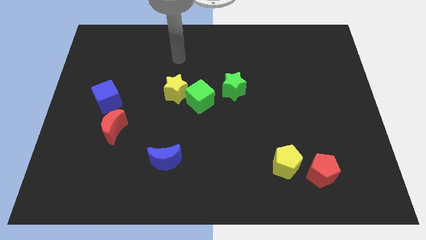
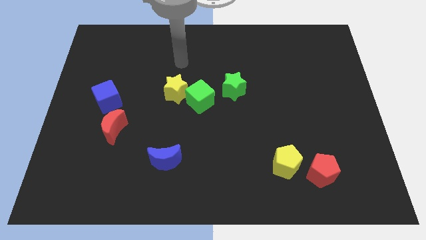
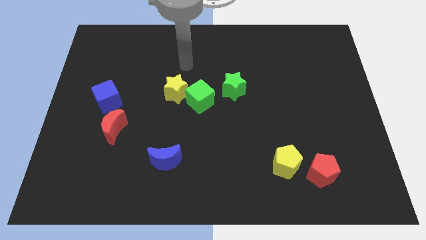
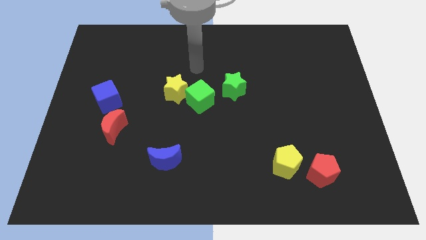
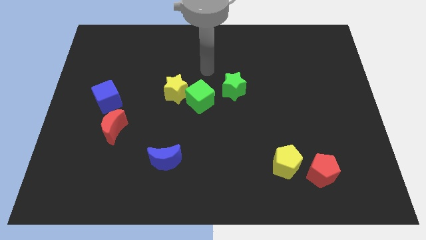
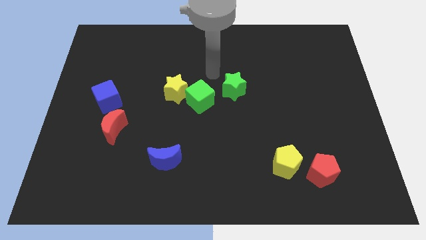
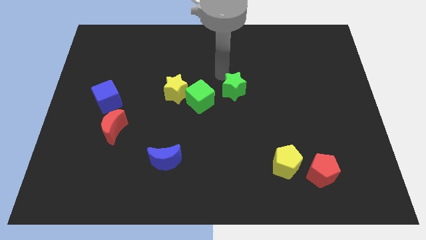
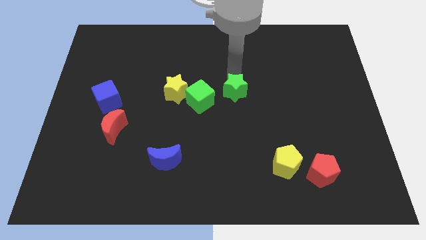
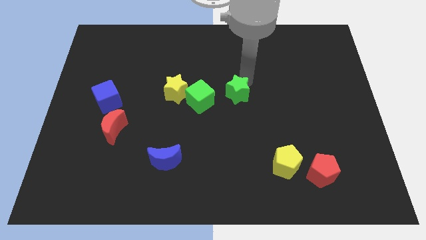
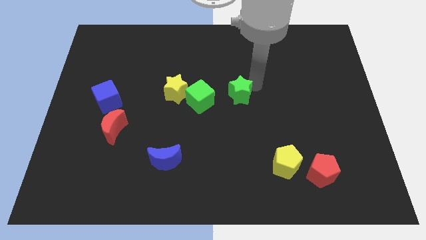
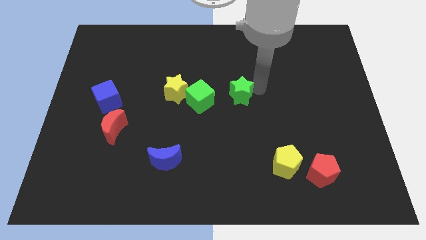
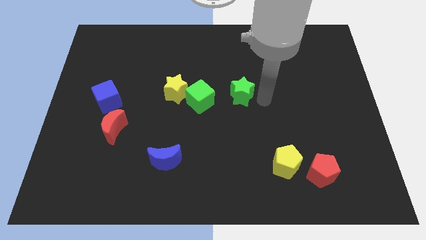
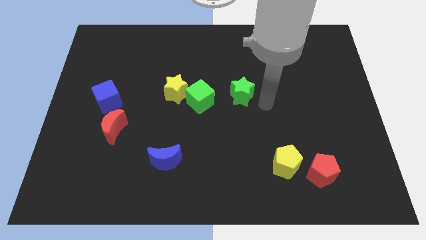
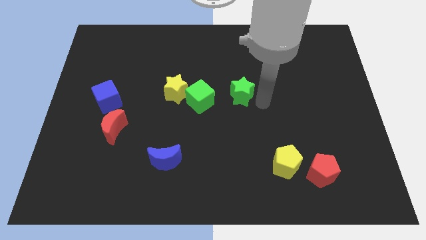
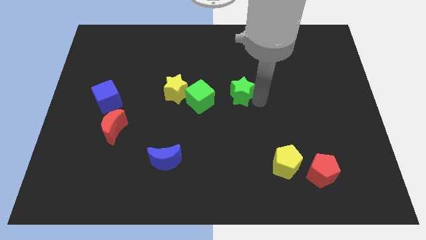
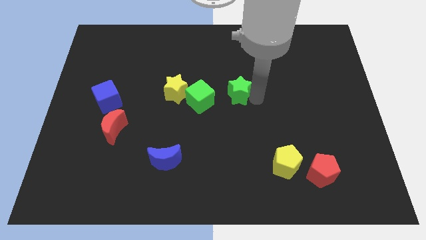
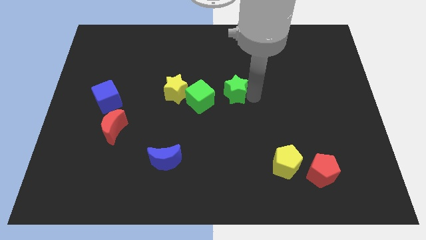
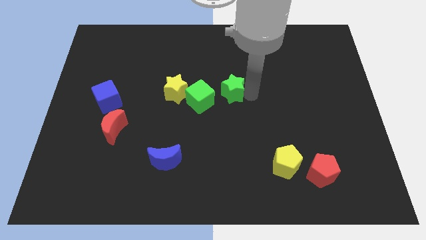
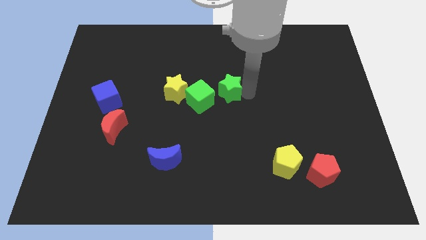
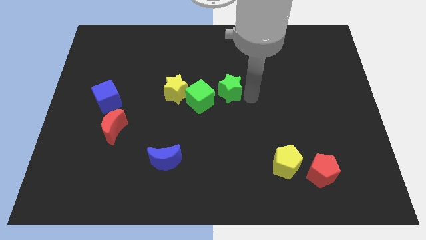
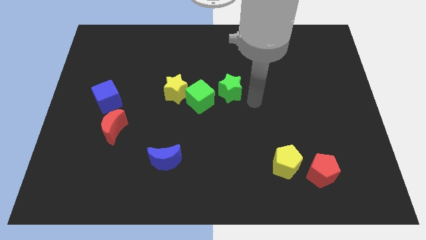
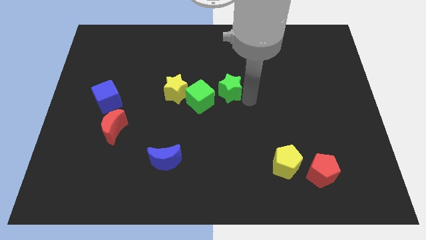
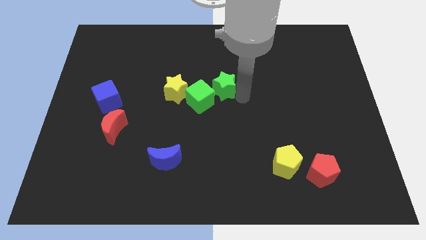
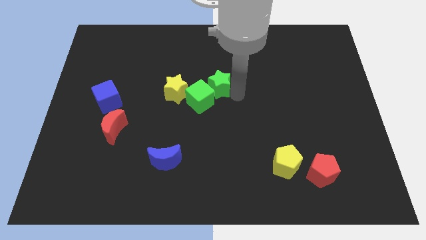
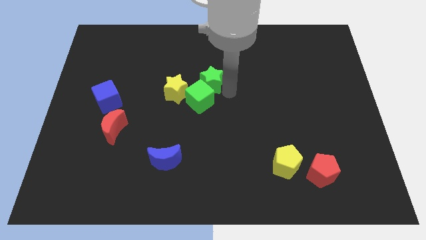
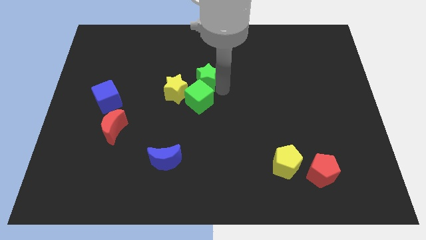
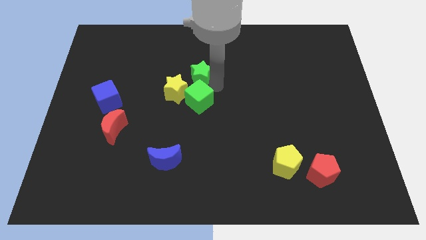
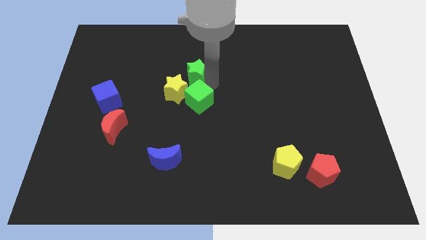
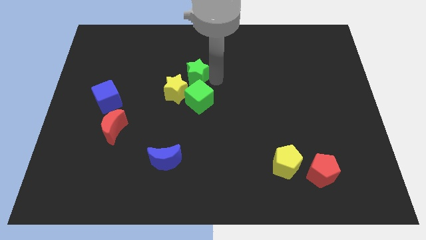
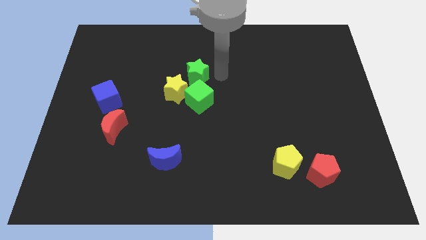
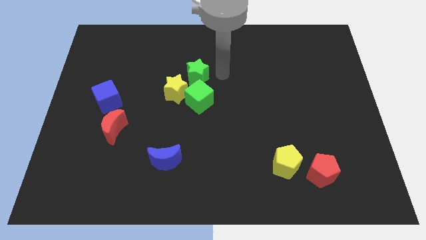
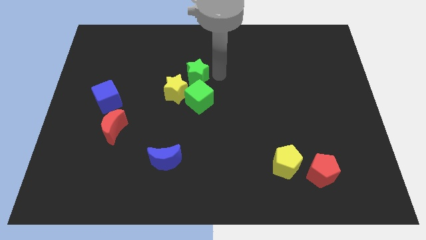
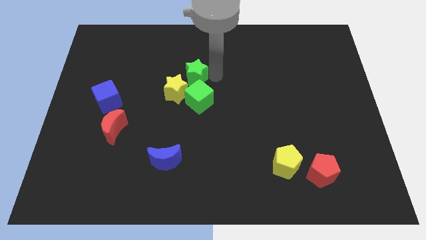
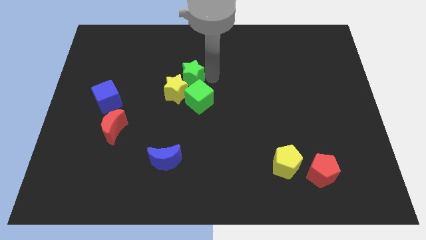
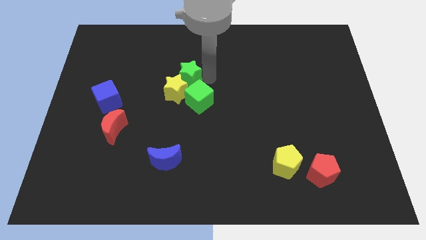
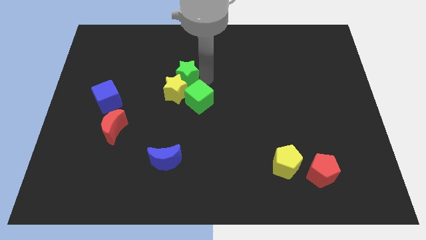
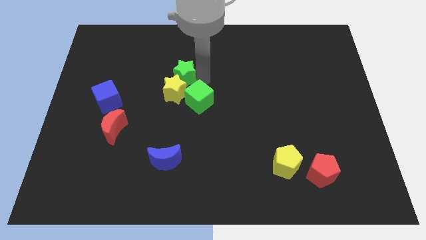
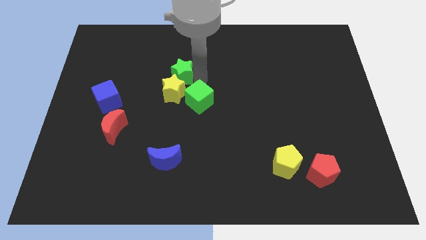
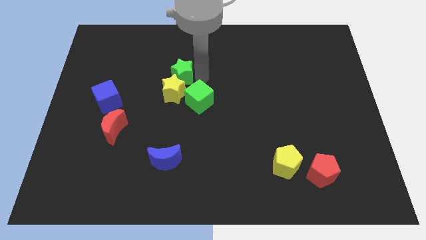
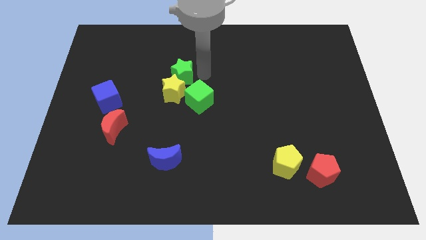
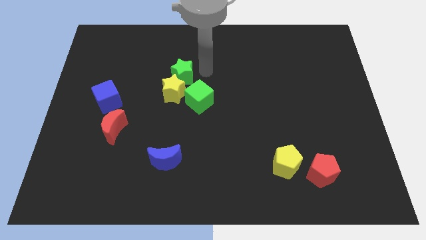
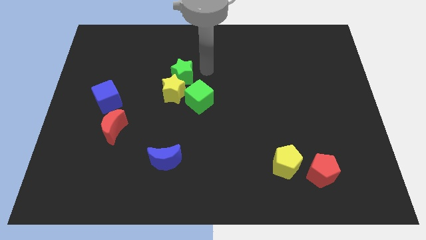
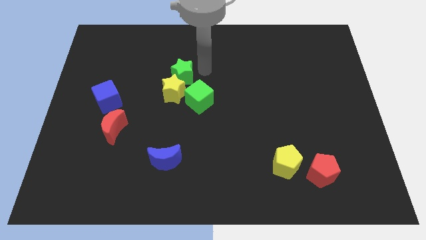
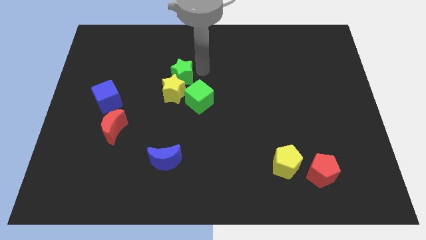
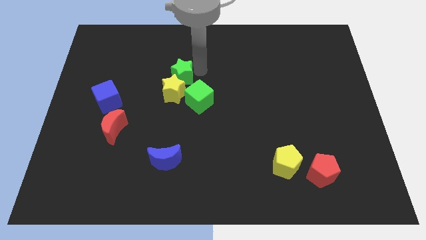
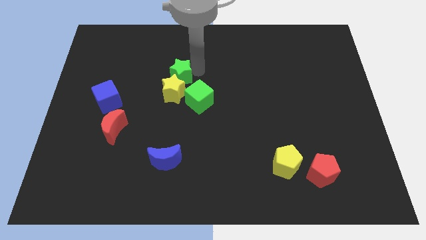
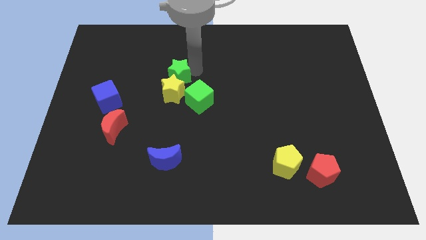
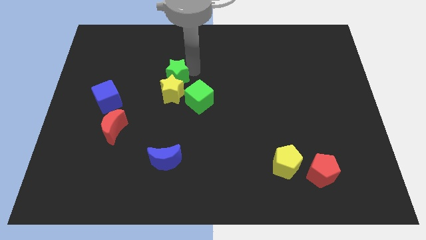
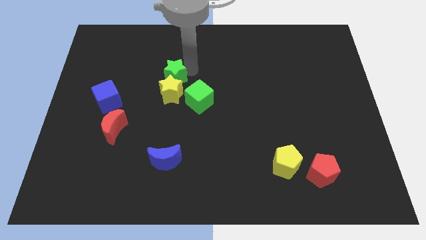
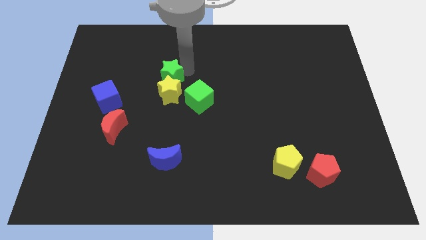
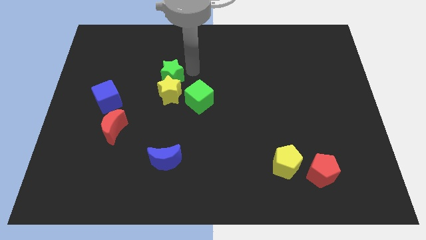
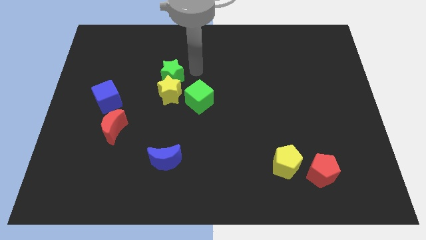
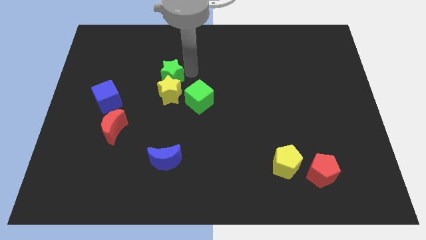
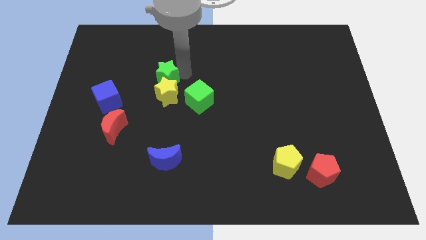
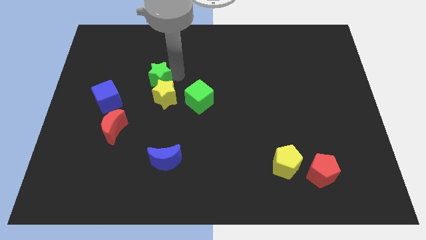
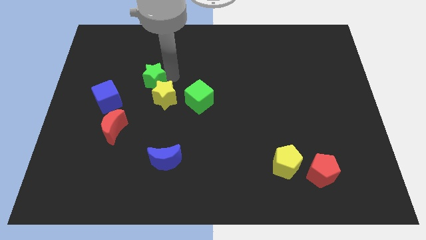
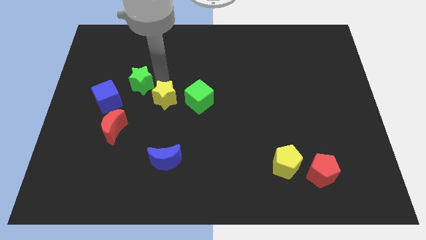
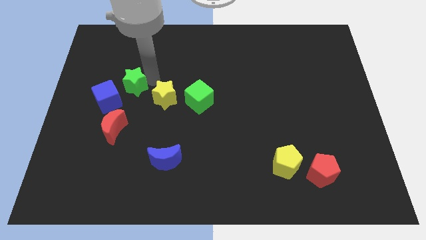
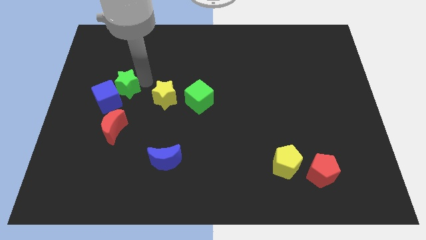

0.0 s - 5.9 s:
put the green star next to the blue cube
